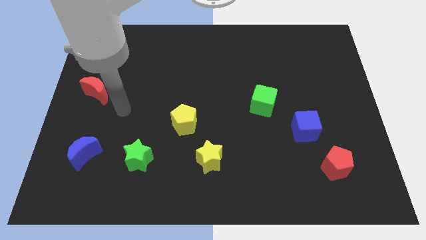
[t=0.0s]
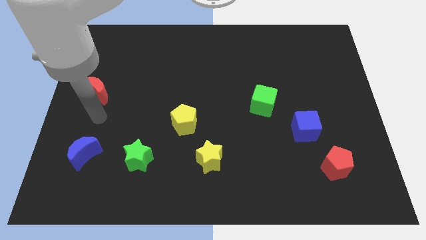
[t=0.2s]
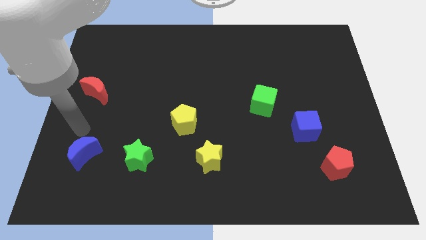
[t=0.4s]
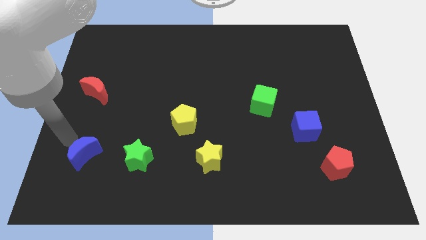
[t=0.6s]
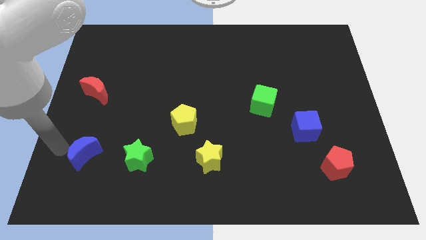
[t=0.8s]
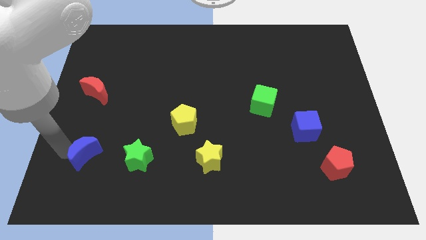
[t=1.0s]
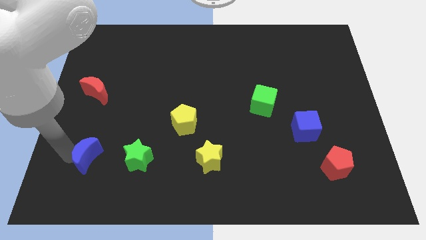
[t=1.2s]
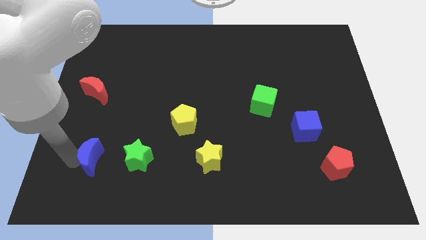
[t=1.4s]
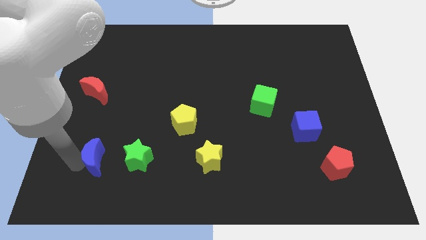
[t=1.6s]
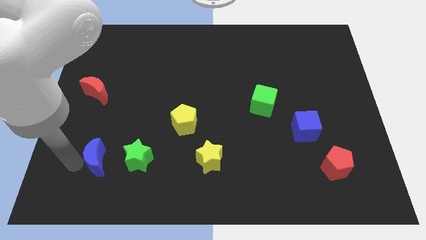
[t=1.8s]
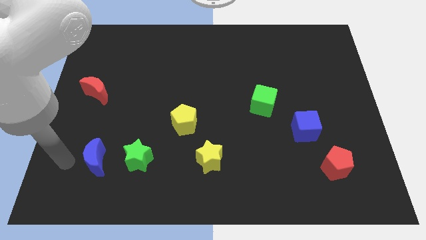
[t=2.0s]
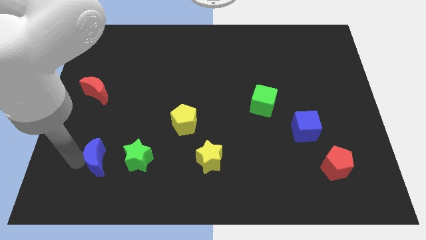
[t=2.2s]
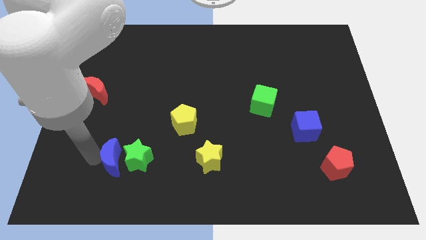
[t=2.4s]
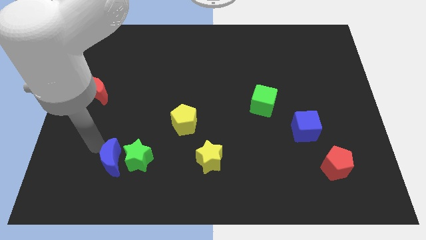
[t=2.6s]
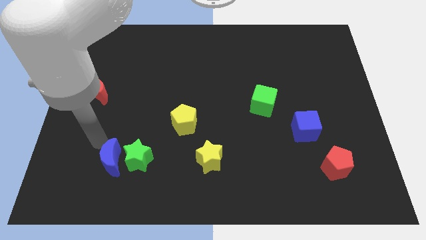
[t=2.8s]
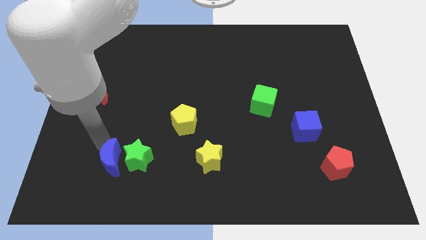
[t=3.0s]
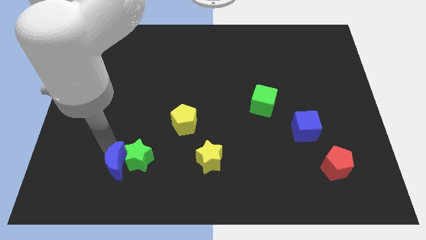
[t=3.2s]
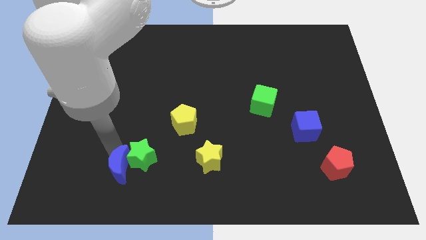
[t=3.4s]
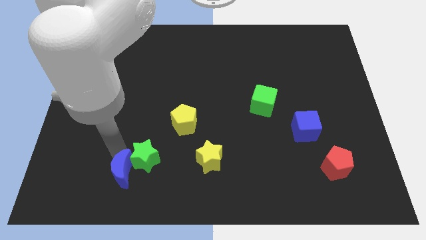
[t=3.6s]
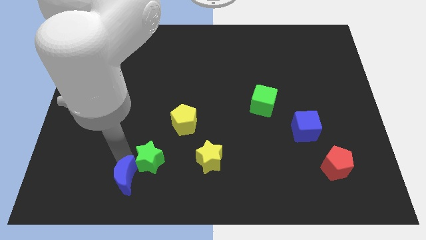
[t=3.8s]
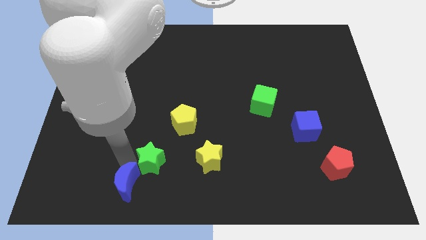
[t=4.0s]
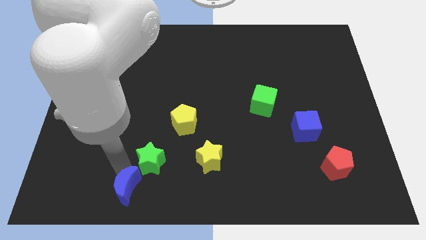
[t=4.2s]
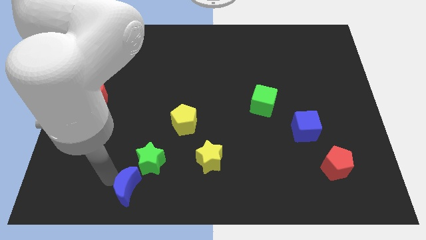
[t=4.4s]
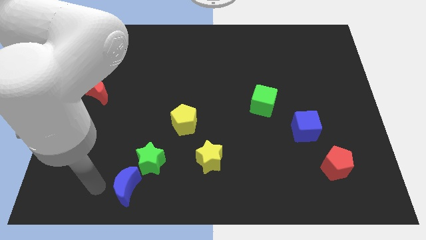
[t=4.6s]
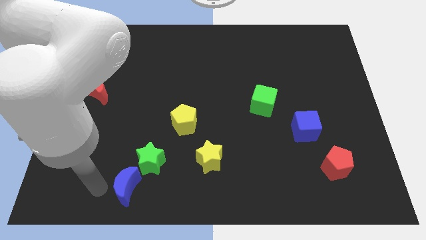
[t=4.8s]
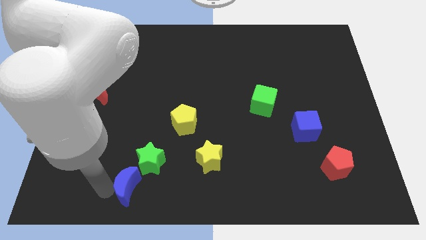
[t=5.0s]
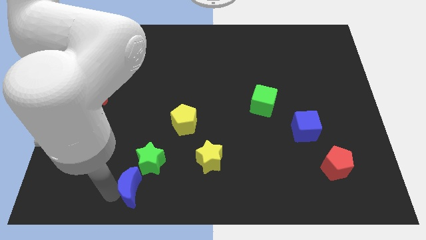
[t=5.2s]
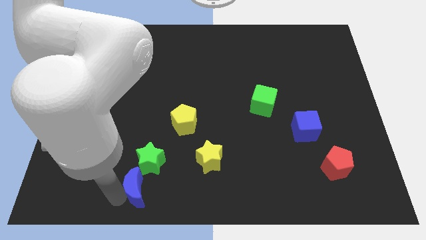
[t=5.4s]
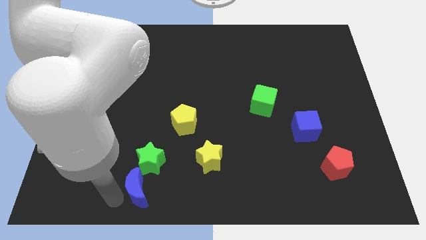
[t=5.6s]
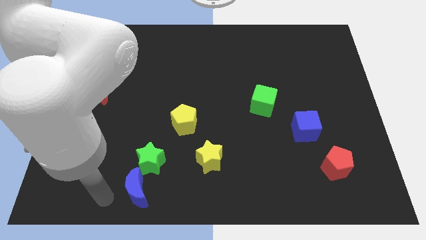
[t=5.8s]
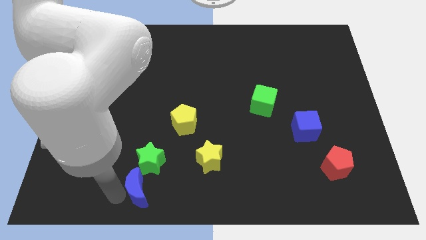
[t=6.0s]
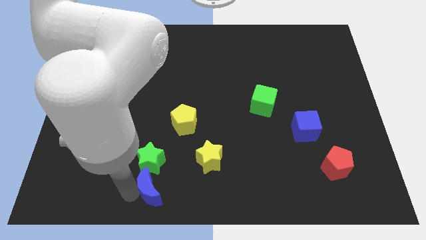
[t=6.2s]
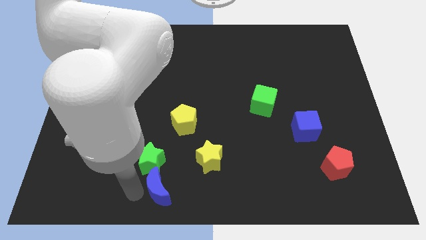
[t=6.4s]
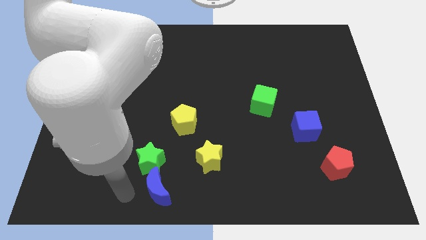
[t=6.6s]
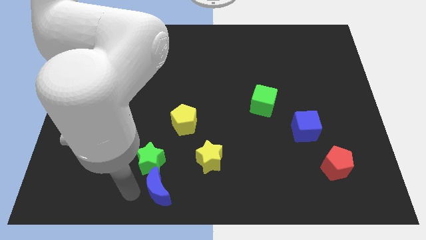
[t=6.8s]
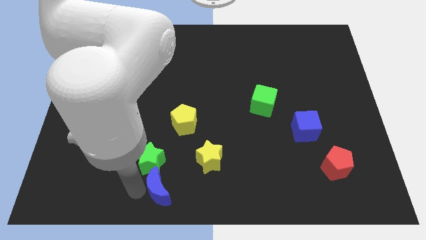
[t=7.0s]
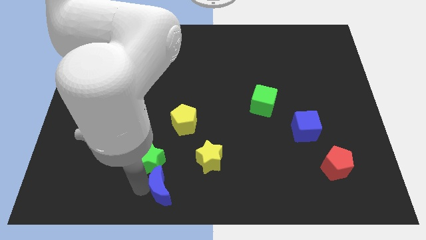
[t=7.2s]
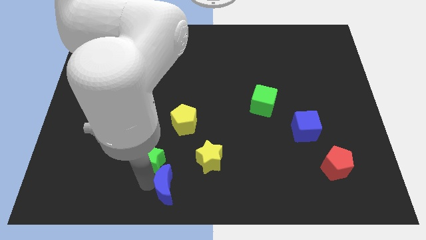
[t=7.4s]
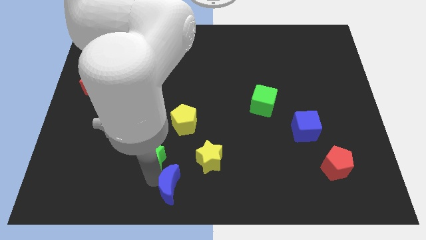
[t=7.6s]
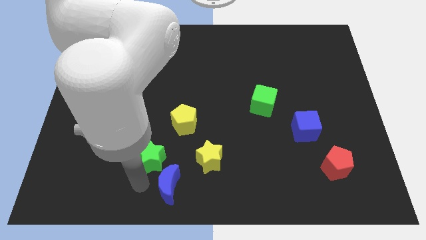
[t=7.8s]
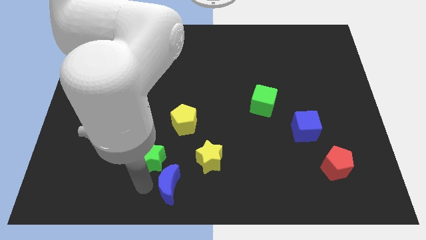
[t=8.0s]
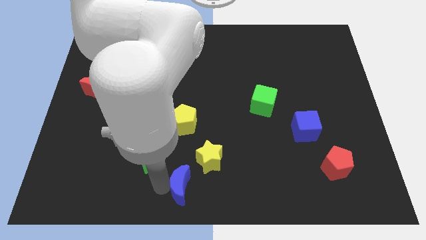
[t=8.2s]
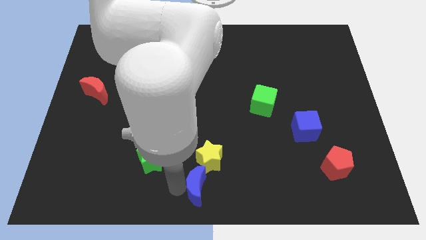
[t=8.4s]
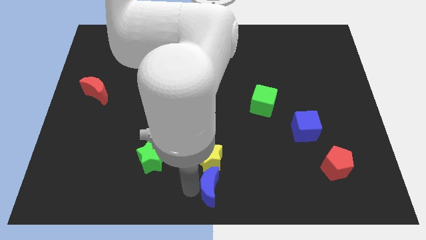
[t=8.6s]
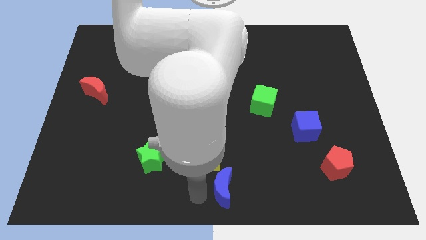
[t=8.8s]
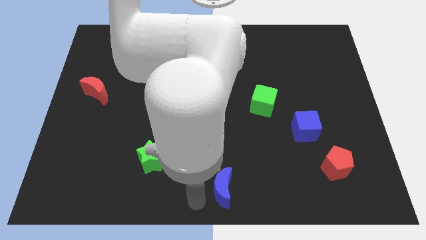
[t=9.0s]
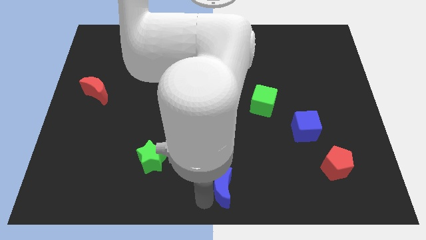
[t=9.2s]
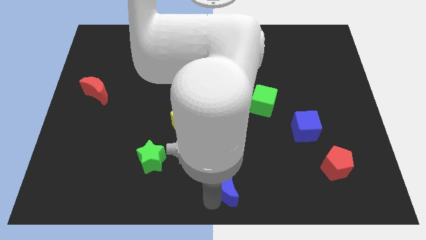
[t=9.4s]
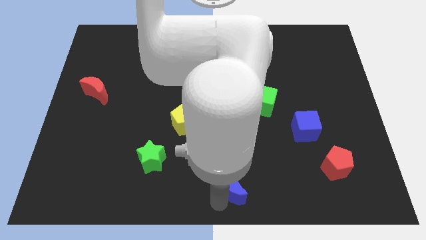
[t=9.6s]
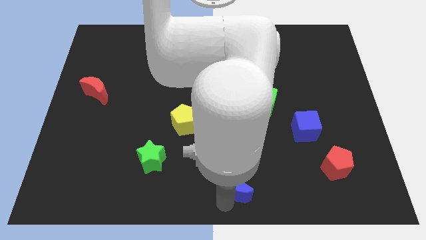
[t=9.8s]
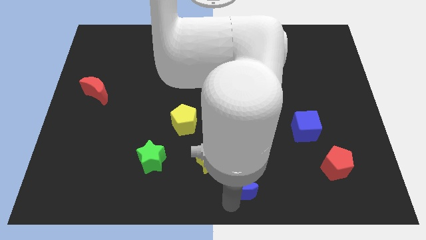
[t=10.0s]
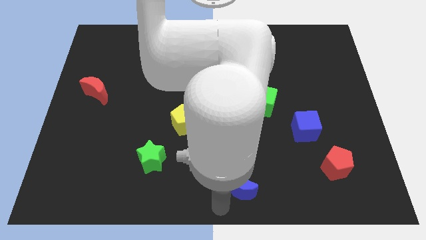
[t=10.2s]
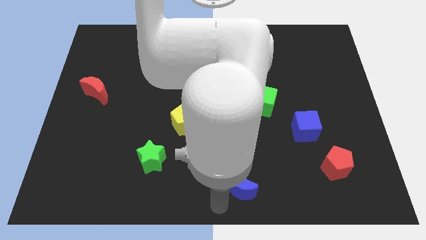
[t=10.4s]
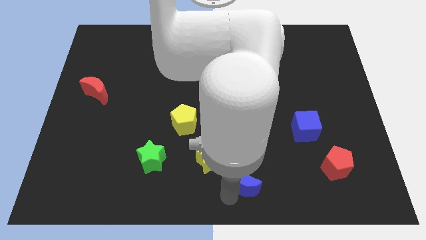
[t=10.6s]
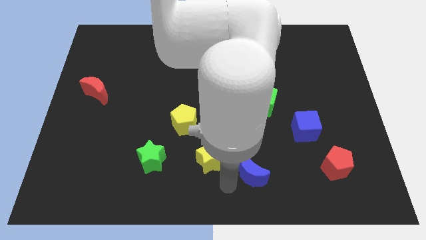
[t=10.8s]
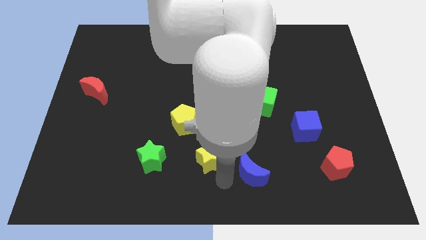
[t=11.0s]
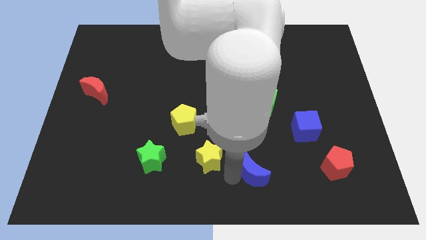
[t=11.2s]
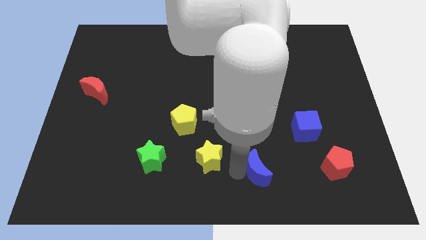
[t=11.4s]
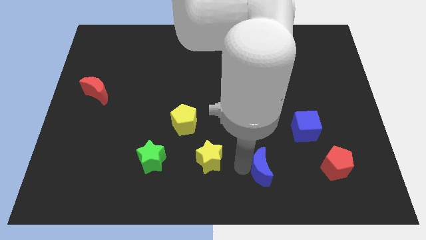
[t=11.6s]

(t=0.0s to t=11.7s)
push the blue moon left of the red pentagon

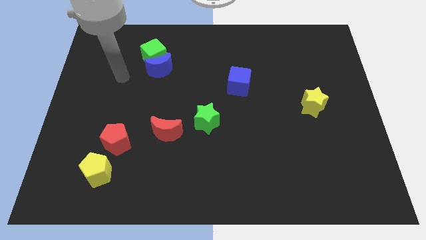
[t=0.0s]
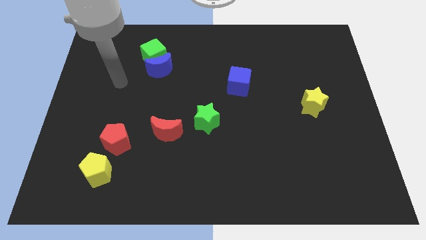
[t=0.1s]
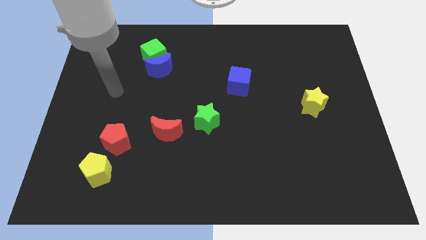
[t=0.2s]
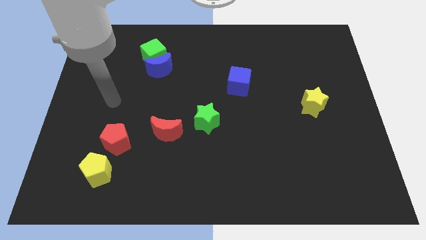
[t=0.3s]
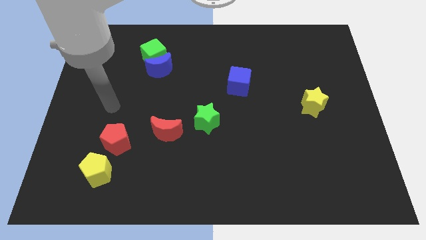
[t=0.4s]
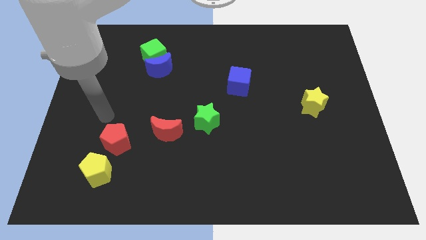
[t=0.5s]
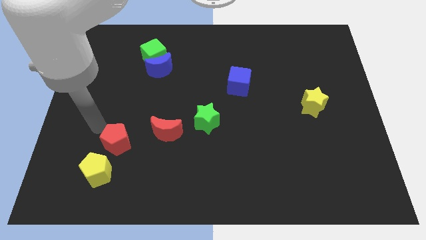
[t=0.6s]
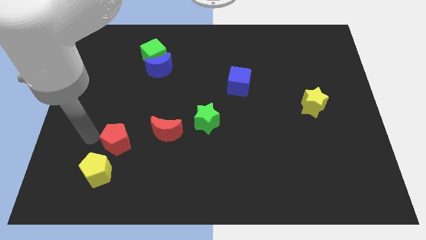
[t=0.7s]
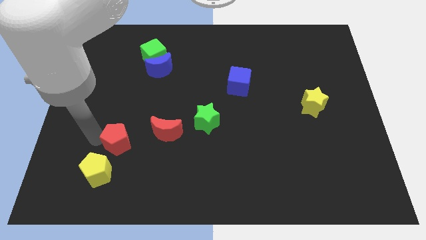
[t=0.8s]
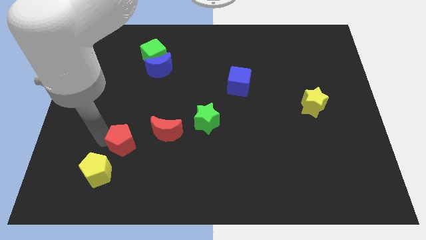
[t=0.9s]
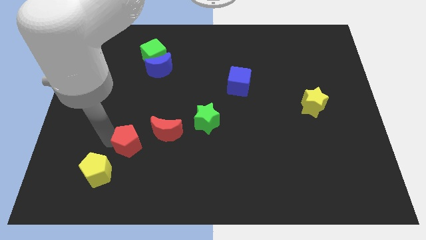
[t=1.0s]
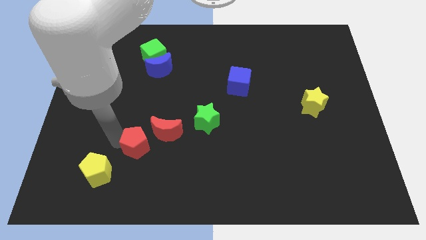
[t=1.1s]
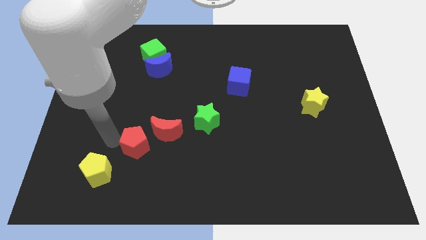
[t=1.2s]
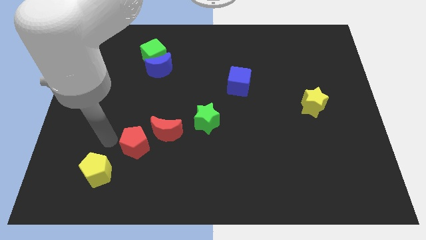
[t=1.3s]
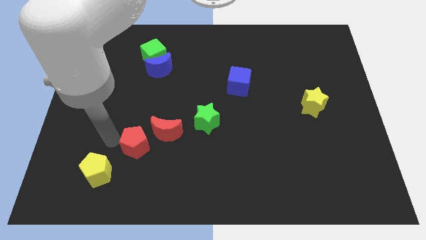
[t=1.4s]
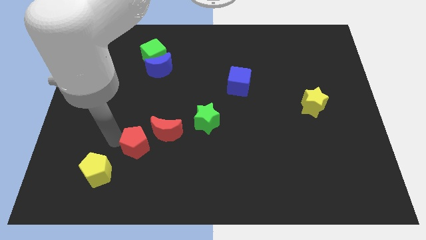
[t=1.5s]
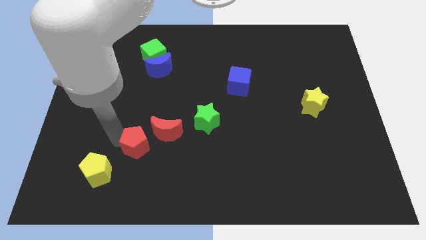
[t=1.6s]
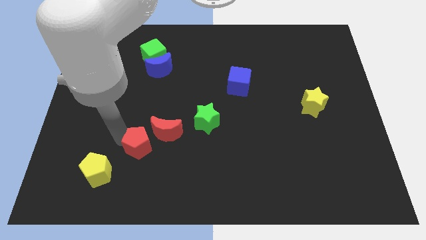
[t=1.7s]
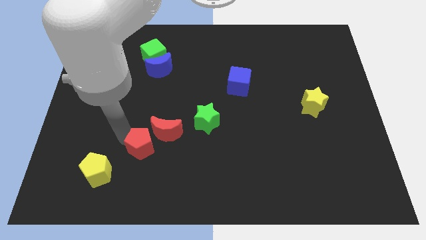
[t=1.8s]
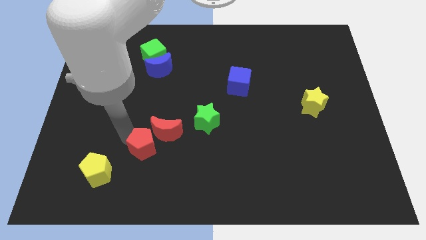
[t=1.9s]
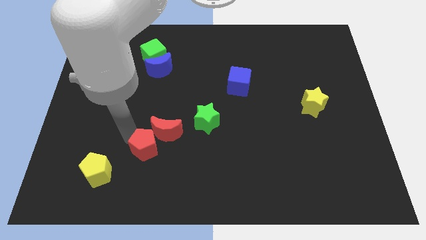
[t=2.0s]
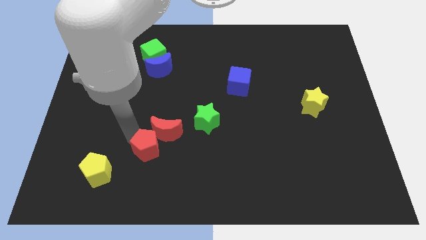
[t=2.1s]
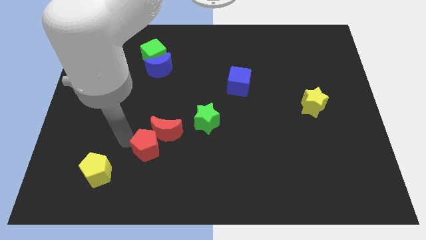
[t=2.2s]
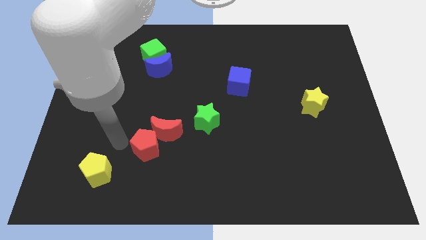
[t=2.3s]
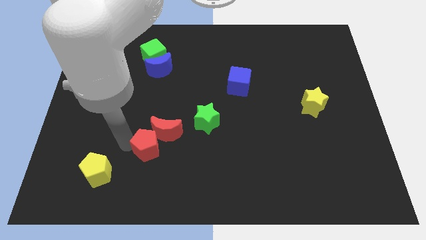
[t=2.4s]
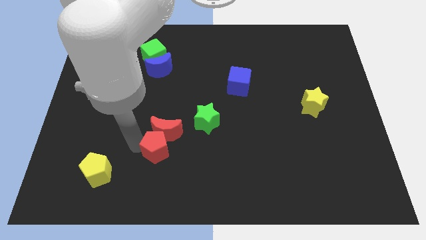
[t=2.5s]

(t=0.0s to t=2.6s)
move the red pentagon diagonally down and to the right of the red moon
